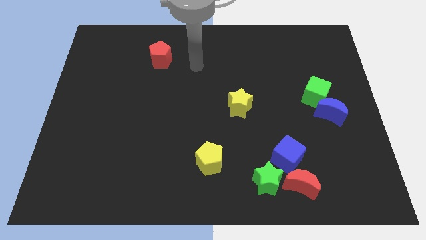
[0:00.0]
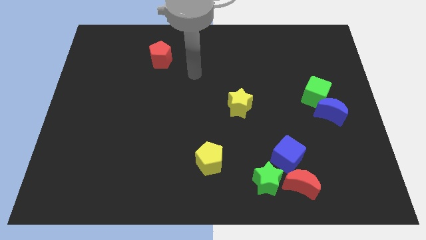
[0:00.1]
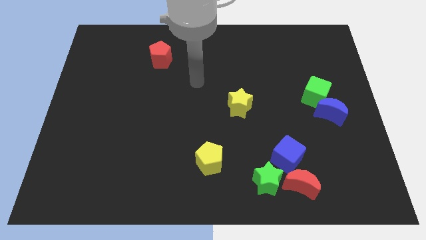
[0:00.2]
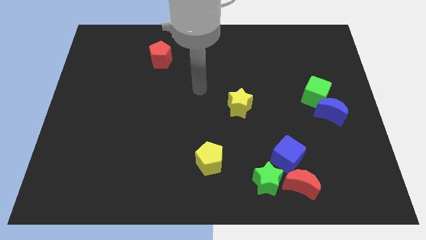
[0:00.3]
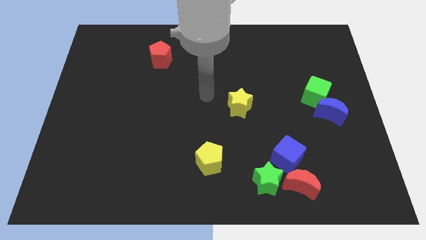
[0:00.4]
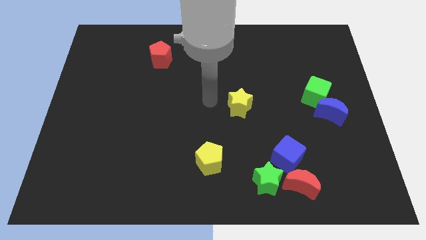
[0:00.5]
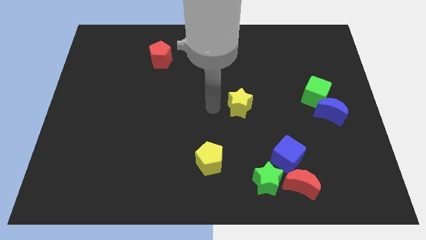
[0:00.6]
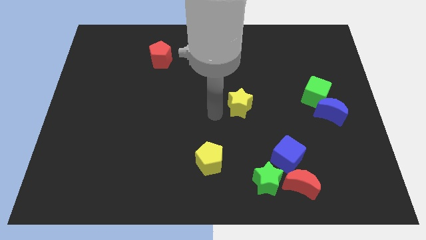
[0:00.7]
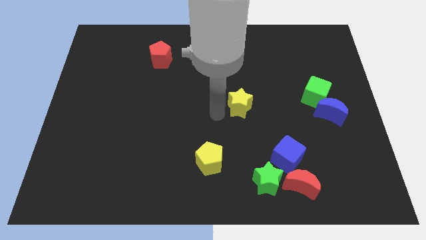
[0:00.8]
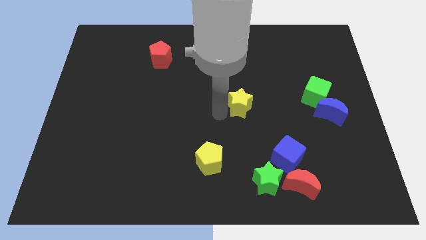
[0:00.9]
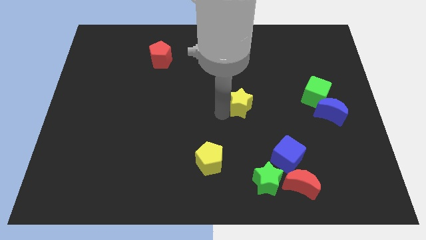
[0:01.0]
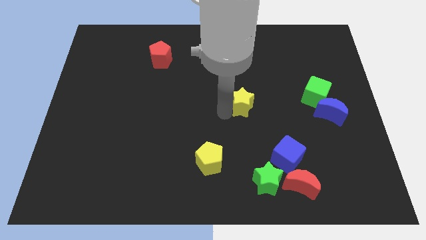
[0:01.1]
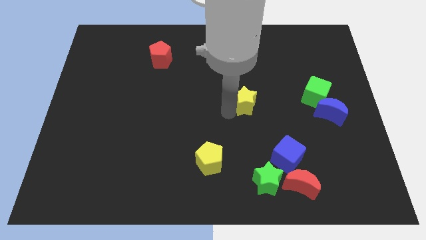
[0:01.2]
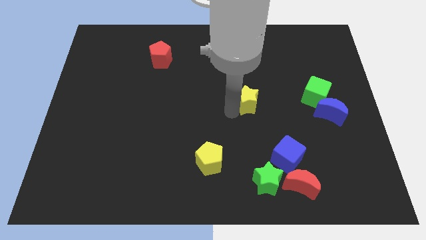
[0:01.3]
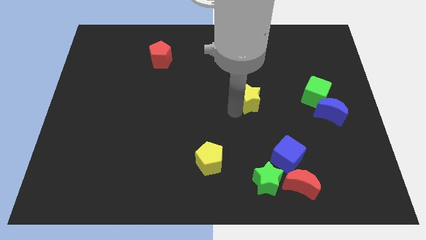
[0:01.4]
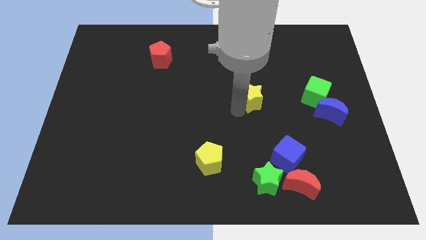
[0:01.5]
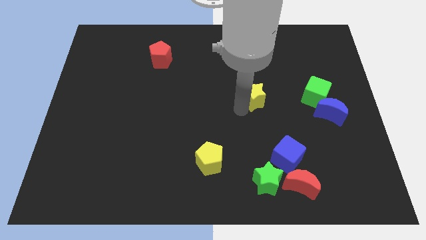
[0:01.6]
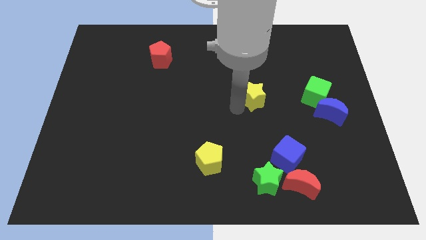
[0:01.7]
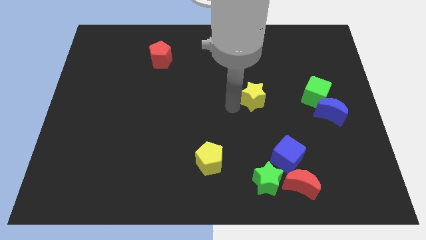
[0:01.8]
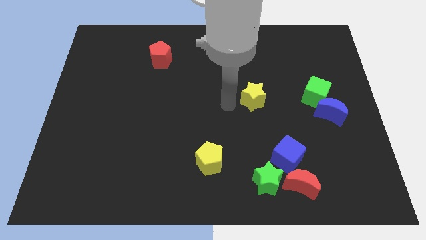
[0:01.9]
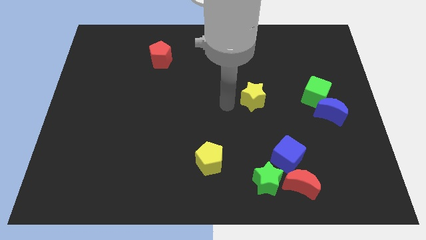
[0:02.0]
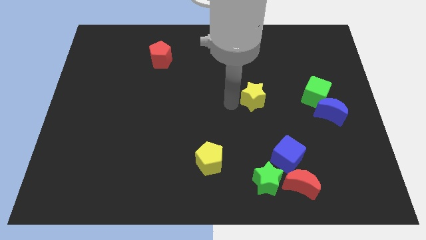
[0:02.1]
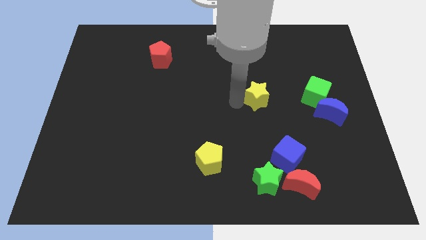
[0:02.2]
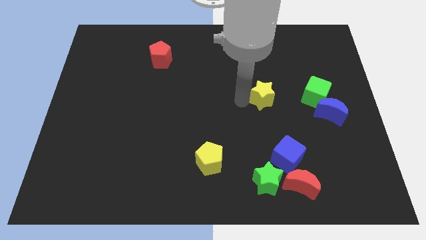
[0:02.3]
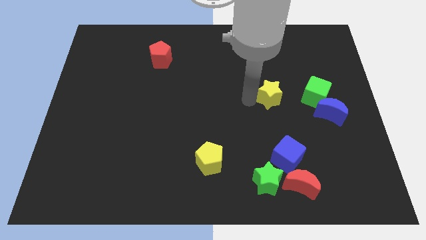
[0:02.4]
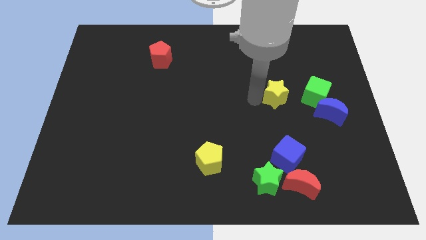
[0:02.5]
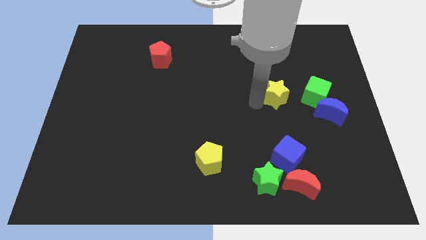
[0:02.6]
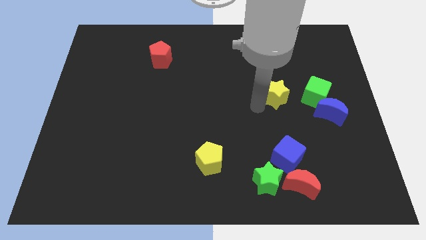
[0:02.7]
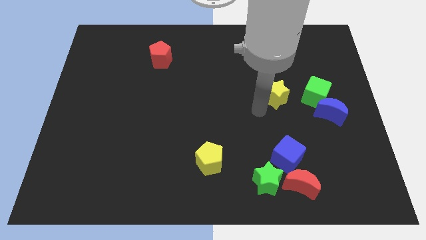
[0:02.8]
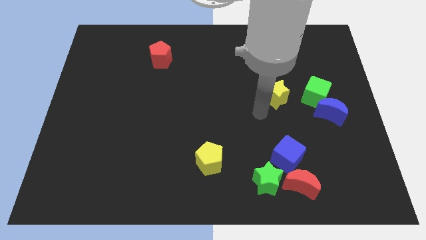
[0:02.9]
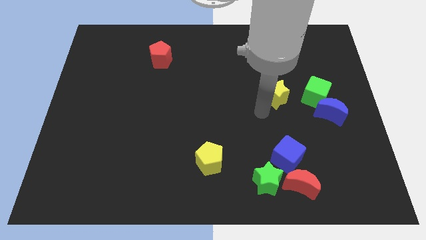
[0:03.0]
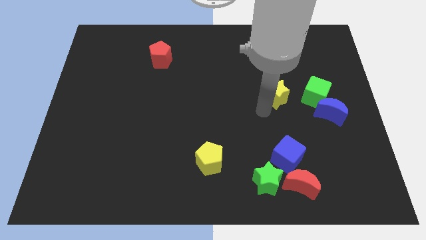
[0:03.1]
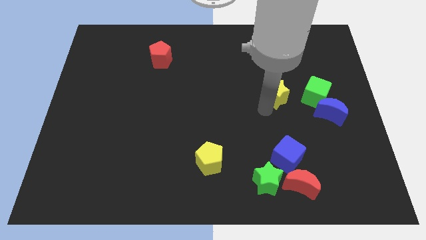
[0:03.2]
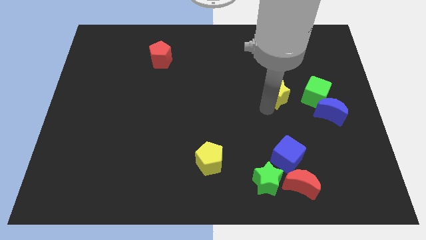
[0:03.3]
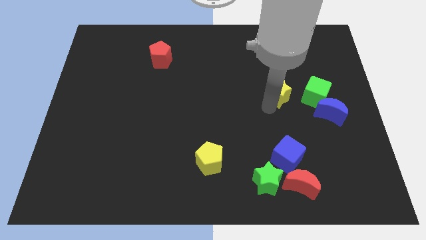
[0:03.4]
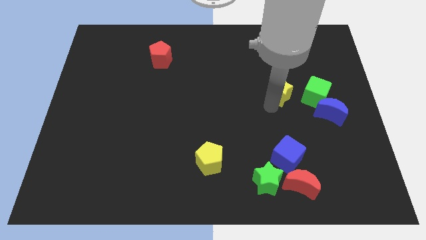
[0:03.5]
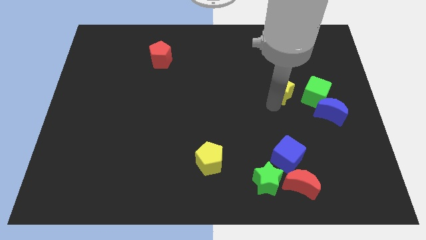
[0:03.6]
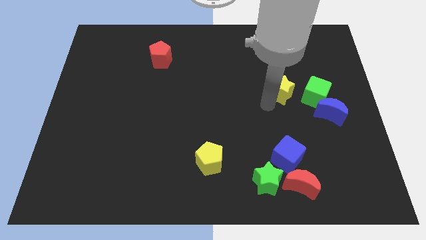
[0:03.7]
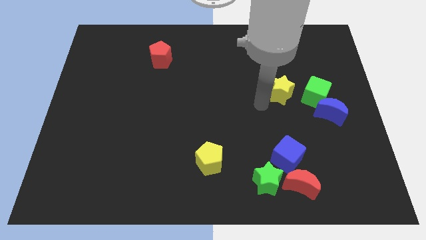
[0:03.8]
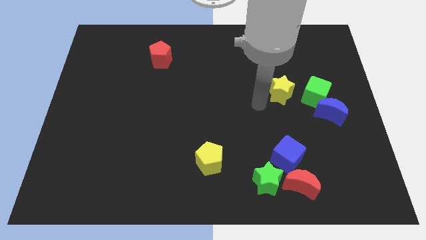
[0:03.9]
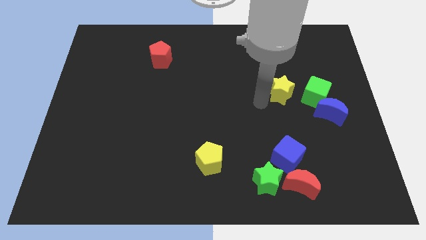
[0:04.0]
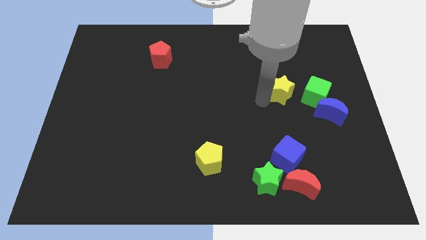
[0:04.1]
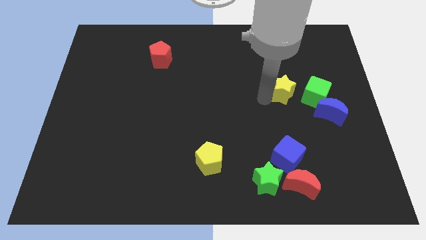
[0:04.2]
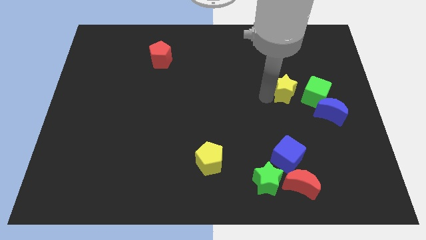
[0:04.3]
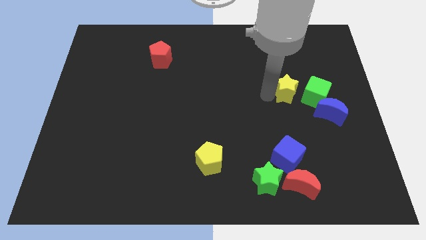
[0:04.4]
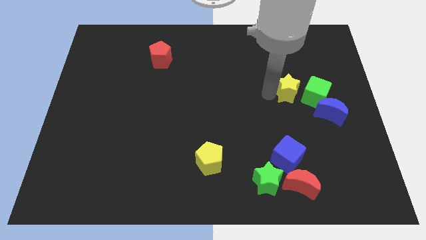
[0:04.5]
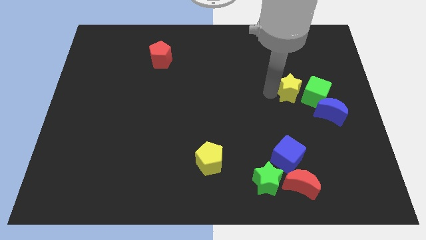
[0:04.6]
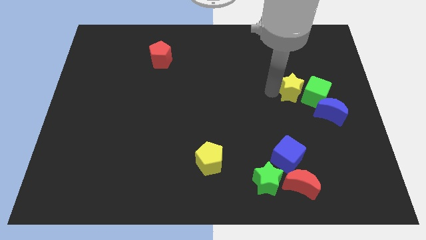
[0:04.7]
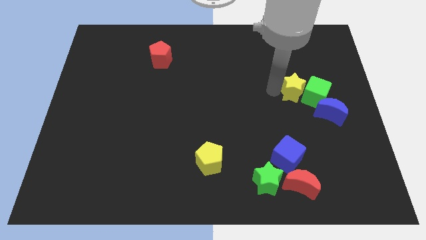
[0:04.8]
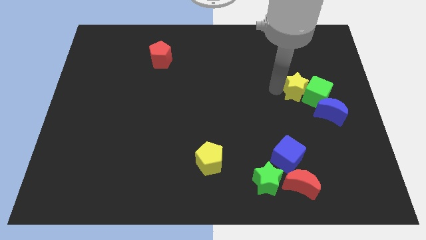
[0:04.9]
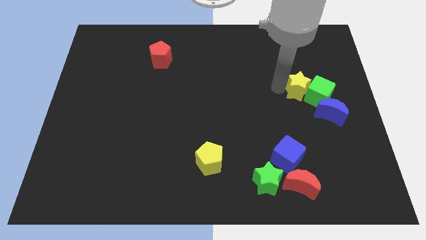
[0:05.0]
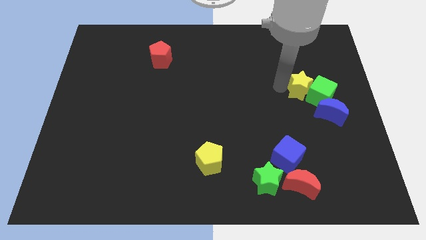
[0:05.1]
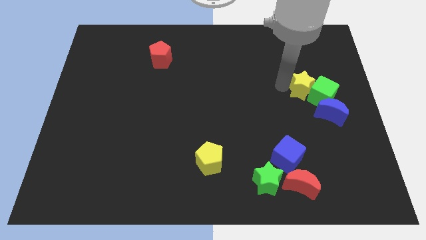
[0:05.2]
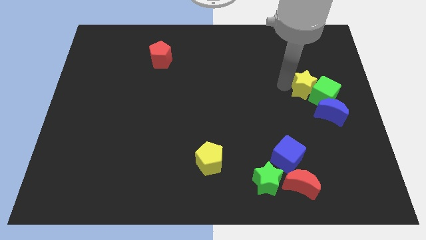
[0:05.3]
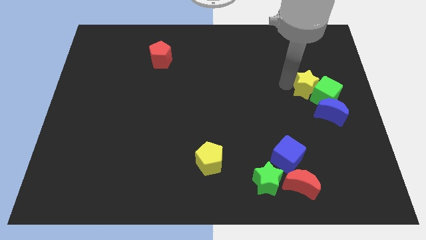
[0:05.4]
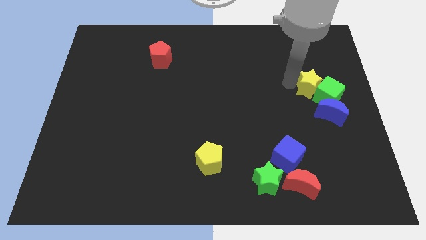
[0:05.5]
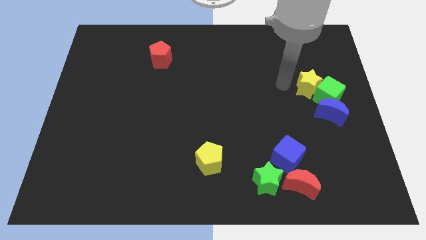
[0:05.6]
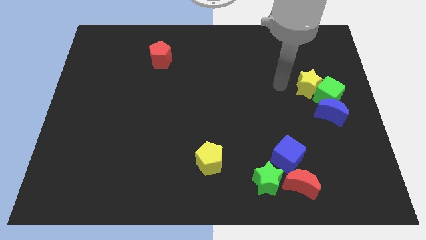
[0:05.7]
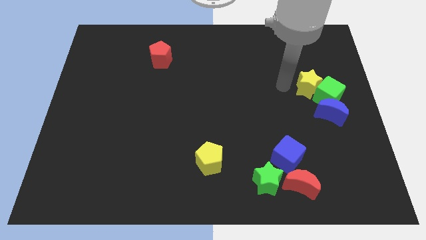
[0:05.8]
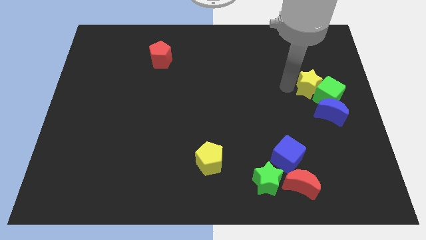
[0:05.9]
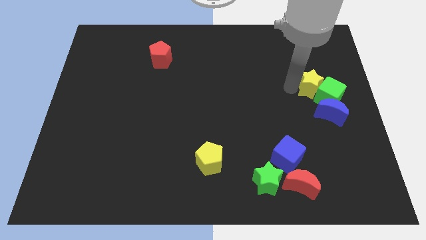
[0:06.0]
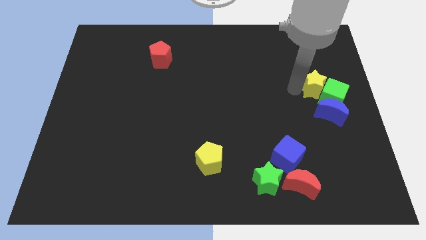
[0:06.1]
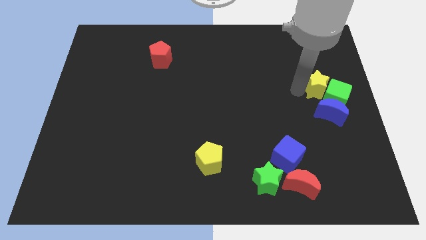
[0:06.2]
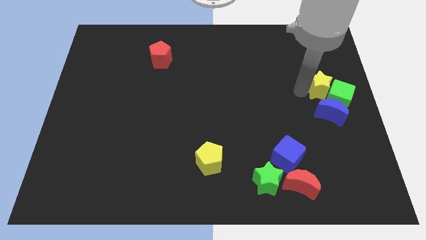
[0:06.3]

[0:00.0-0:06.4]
put the yellow star to the center right
